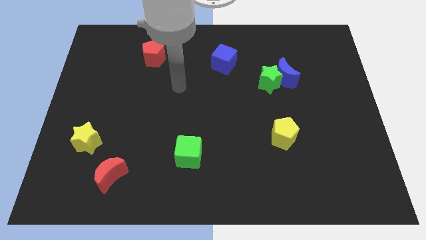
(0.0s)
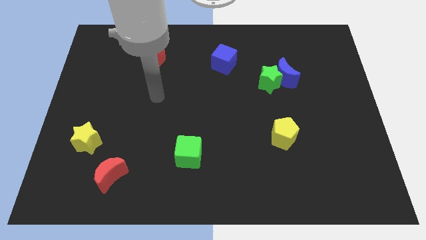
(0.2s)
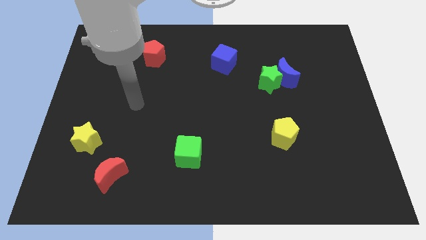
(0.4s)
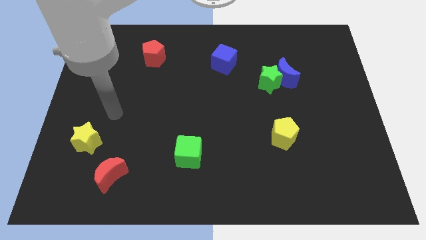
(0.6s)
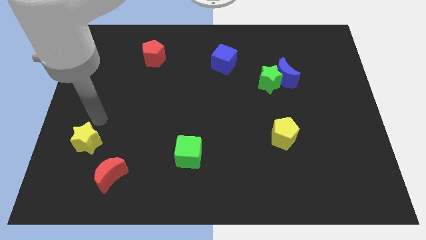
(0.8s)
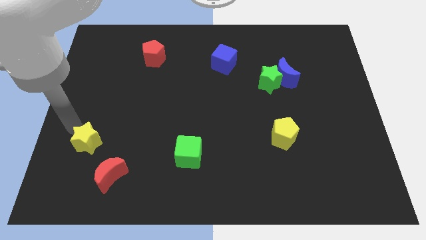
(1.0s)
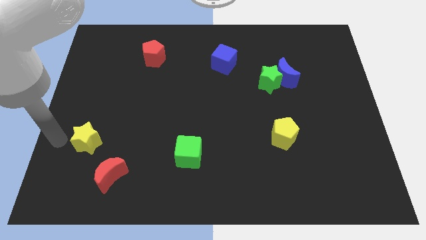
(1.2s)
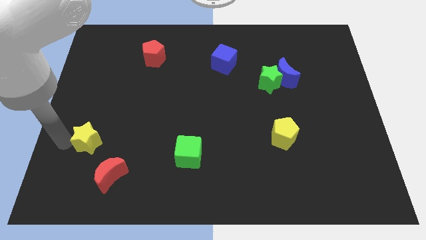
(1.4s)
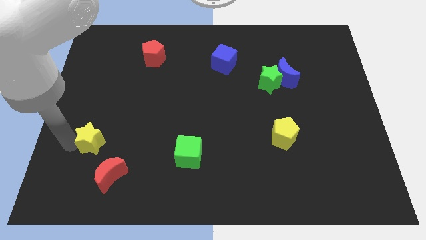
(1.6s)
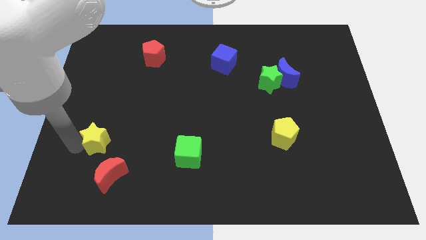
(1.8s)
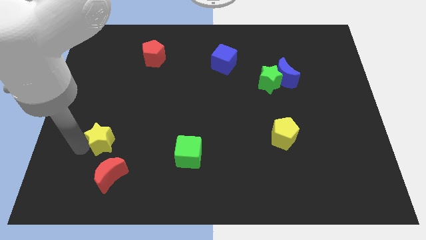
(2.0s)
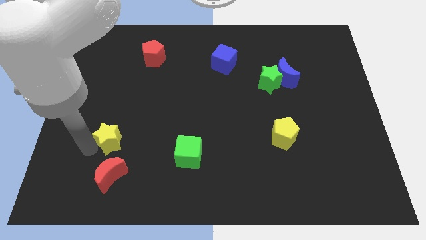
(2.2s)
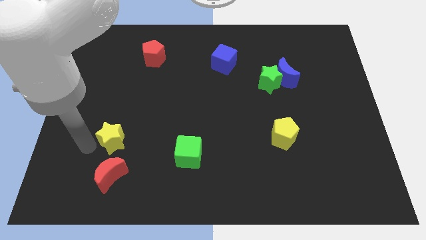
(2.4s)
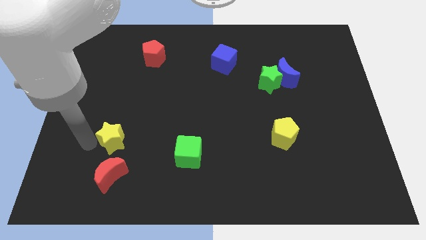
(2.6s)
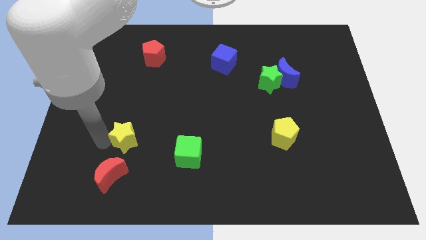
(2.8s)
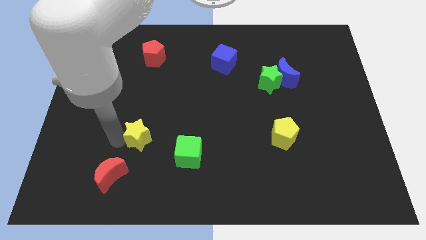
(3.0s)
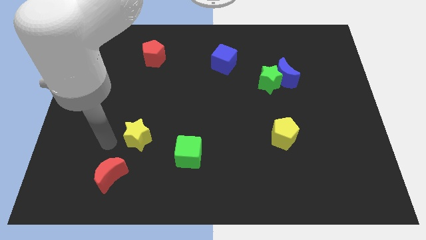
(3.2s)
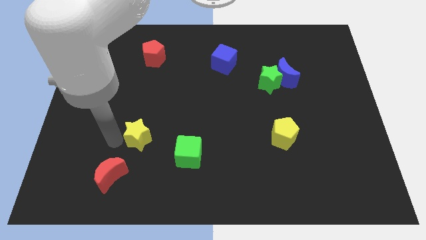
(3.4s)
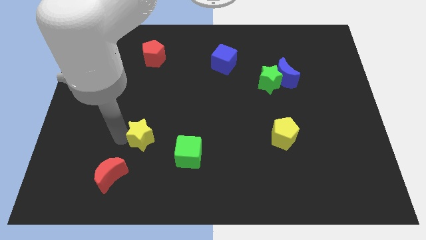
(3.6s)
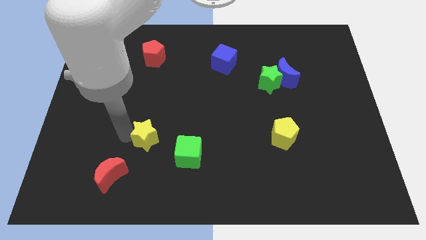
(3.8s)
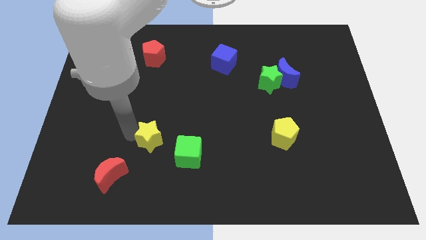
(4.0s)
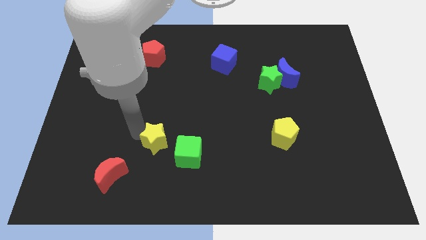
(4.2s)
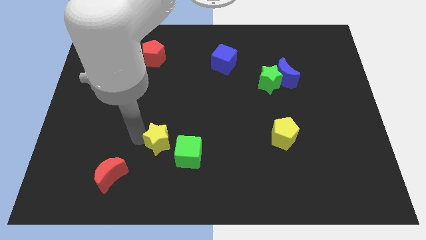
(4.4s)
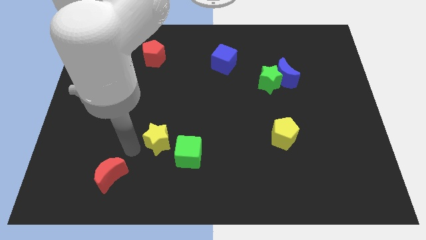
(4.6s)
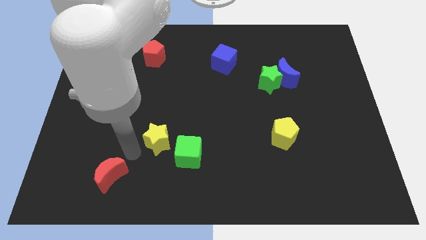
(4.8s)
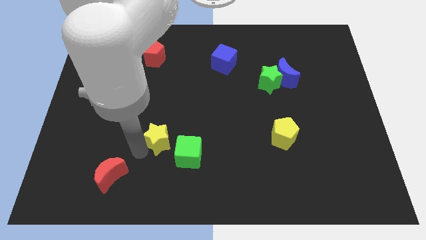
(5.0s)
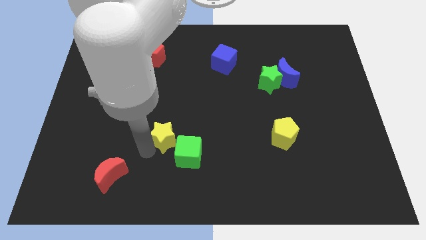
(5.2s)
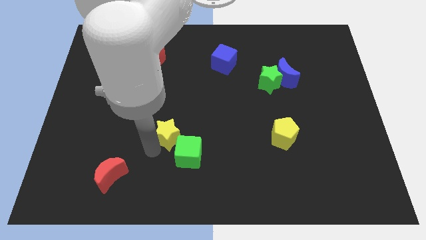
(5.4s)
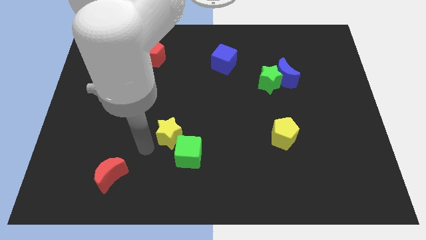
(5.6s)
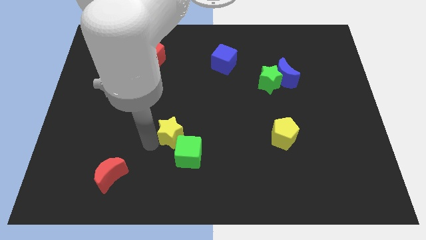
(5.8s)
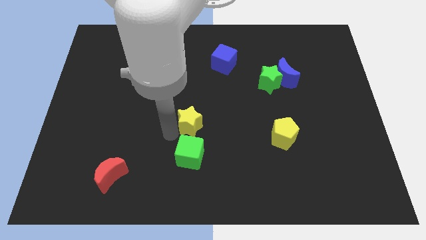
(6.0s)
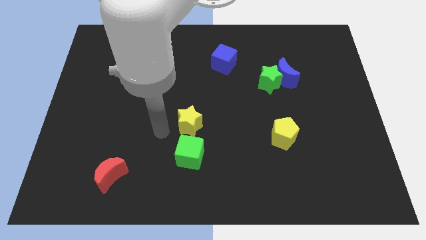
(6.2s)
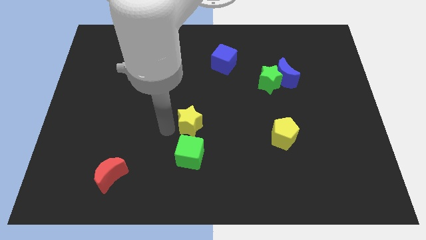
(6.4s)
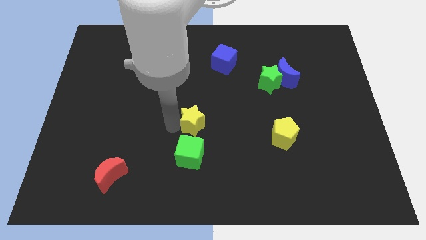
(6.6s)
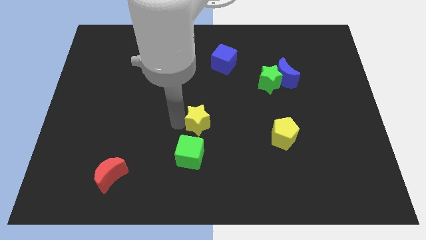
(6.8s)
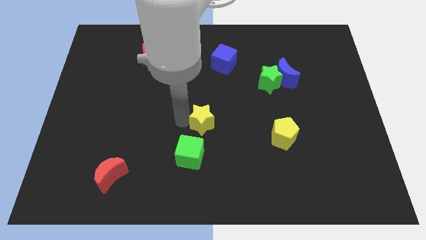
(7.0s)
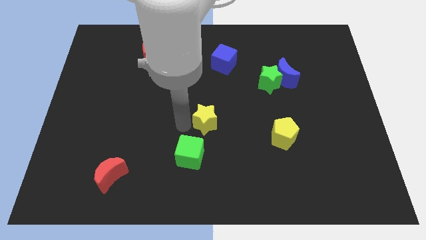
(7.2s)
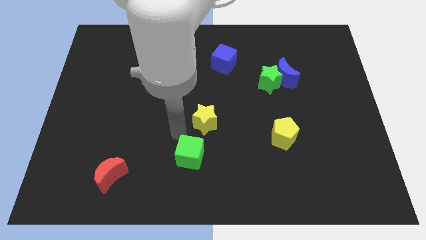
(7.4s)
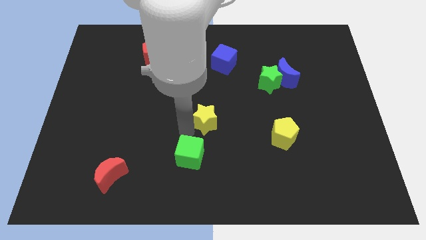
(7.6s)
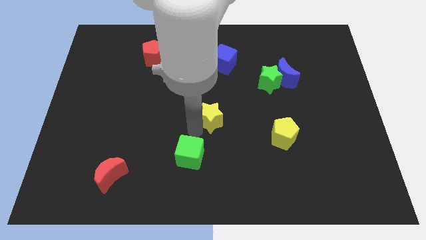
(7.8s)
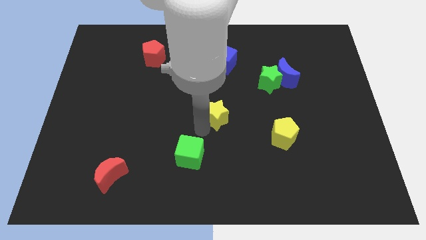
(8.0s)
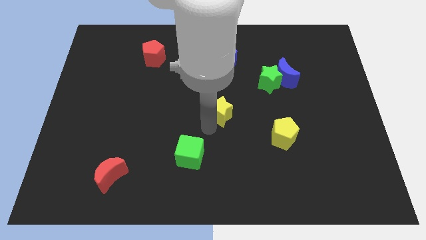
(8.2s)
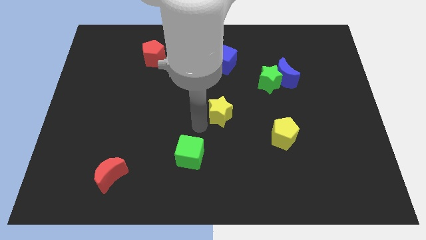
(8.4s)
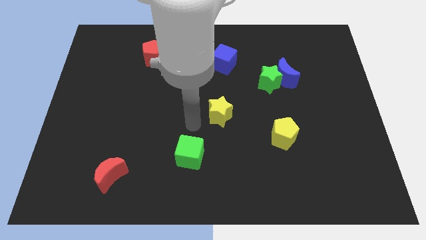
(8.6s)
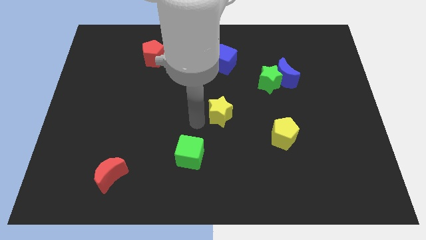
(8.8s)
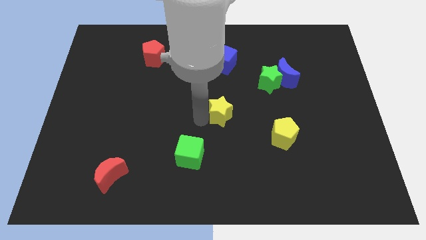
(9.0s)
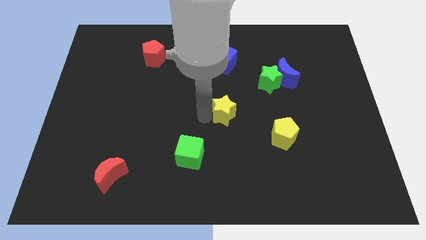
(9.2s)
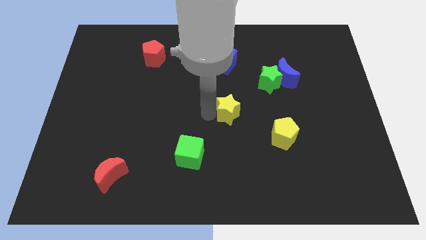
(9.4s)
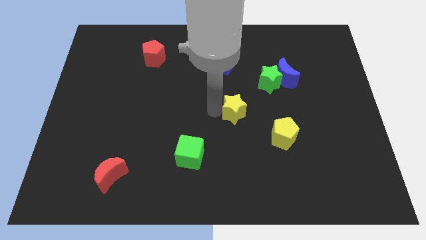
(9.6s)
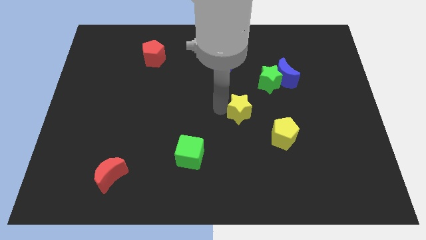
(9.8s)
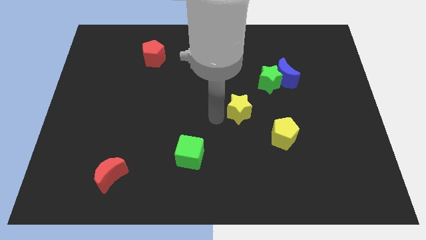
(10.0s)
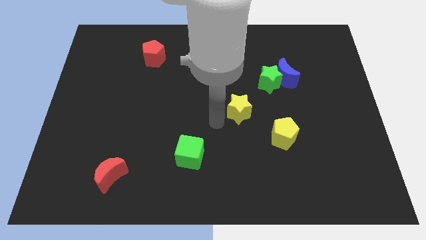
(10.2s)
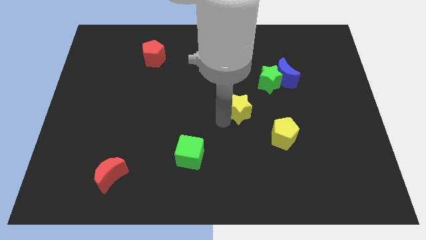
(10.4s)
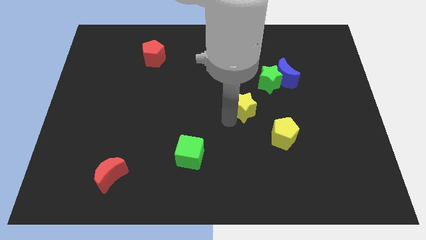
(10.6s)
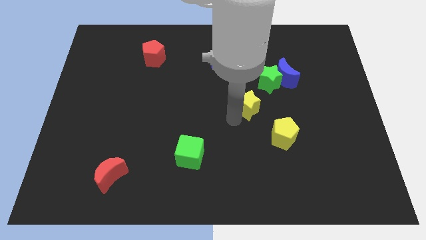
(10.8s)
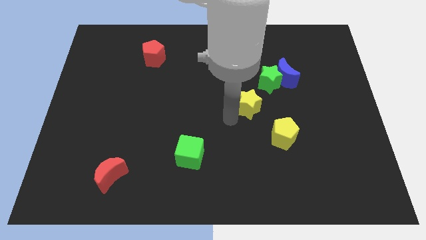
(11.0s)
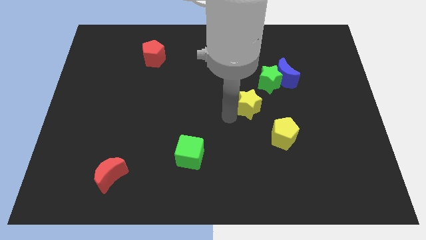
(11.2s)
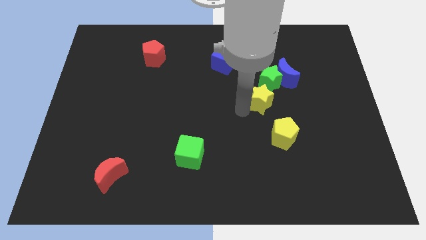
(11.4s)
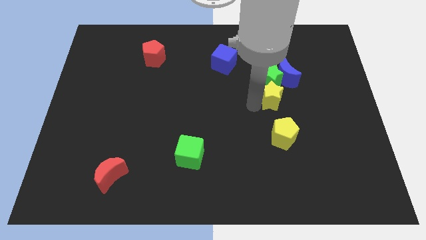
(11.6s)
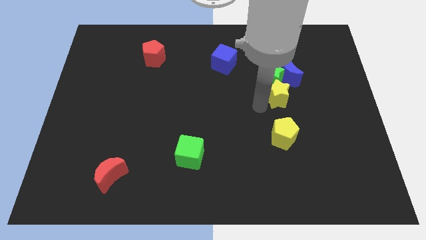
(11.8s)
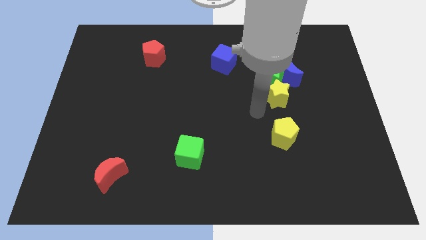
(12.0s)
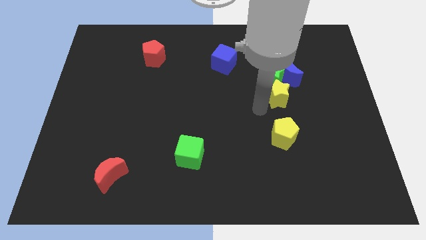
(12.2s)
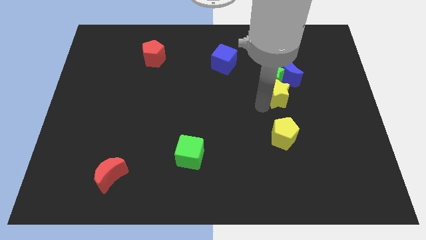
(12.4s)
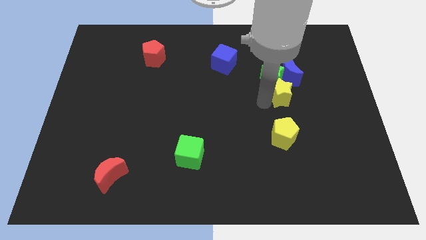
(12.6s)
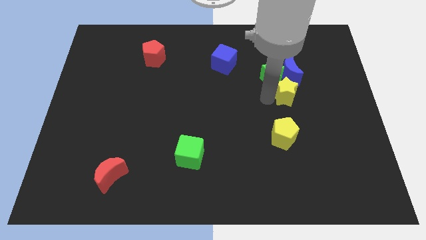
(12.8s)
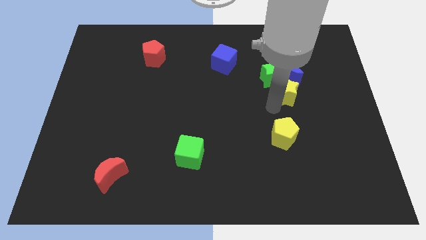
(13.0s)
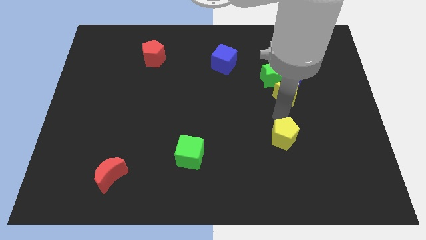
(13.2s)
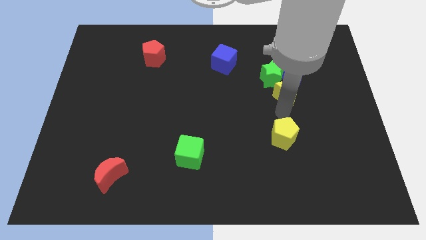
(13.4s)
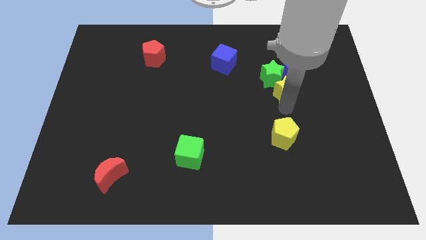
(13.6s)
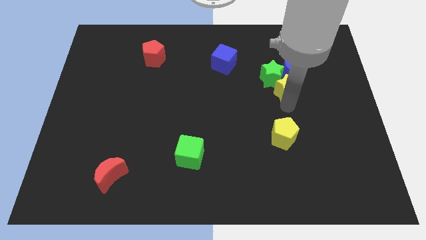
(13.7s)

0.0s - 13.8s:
push the yellow star towards the blue moon

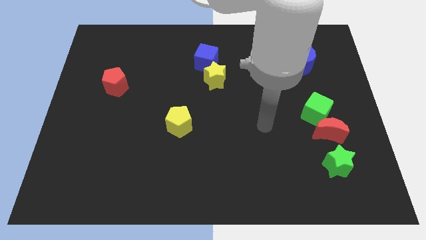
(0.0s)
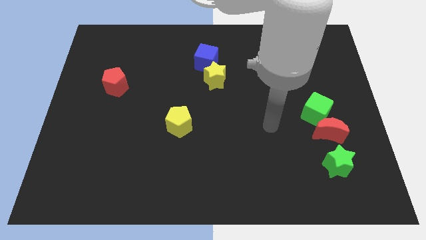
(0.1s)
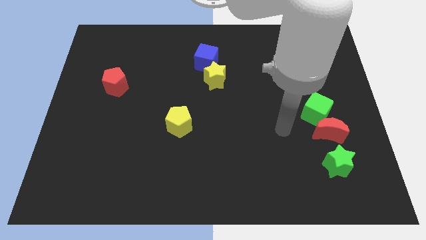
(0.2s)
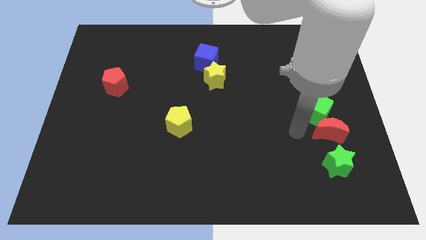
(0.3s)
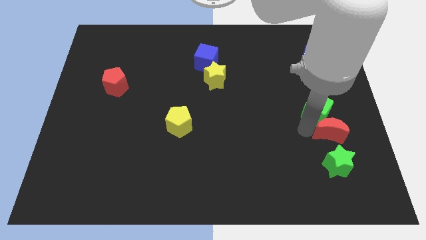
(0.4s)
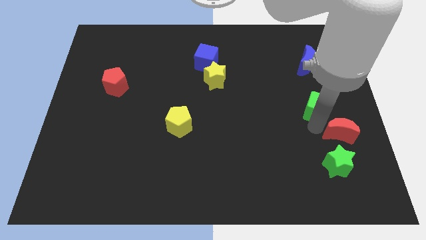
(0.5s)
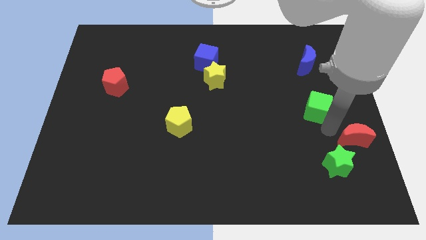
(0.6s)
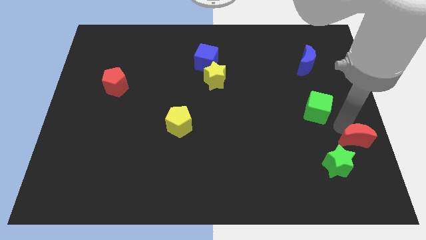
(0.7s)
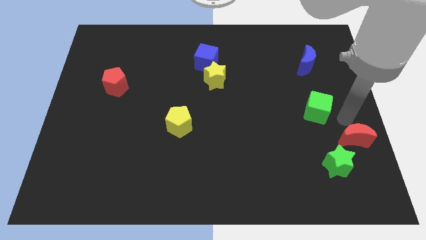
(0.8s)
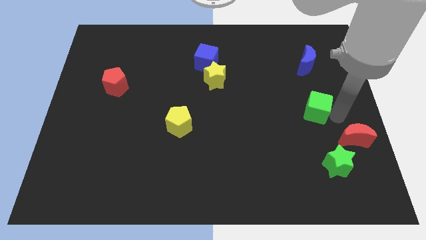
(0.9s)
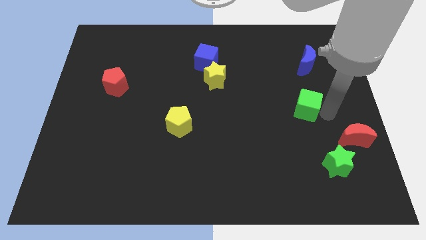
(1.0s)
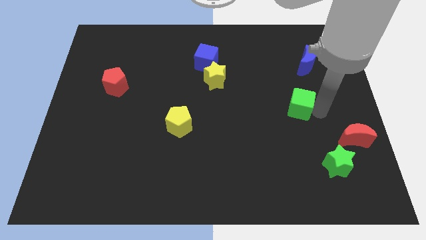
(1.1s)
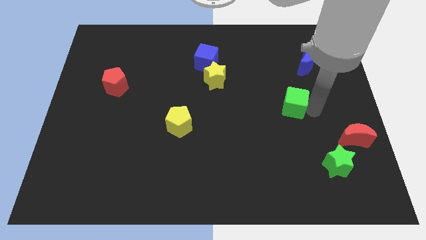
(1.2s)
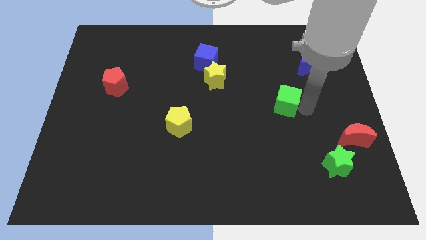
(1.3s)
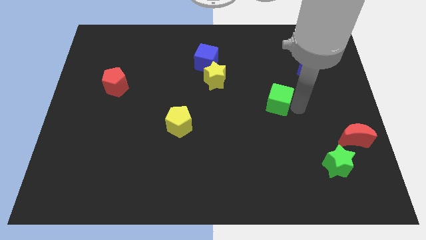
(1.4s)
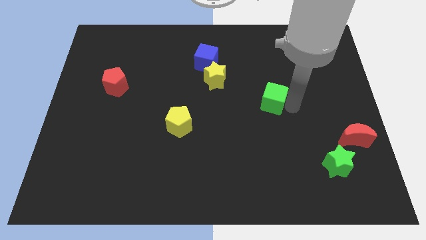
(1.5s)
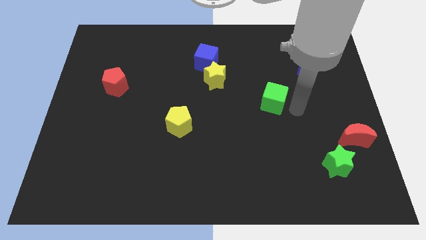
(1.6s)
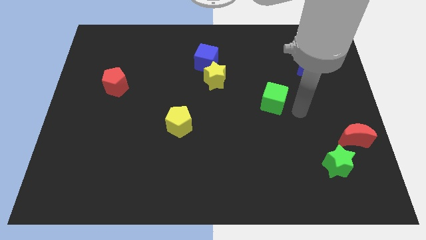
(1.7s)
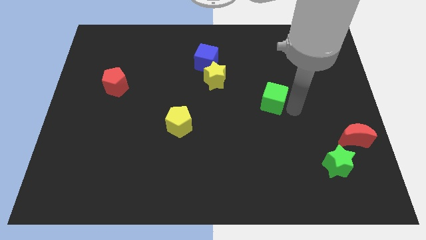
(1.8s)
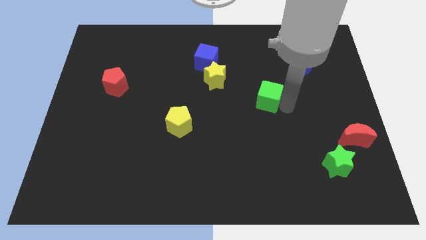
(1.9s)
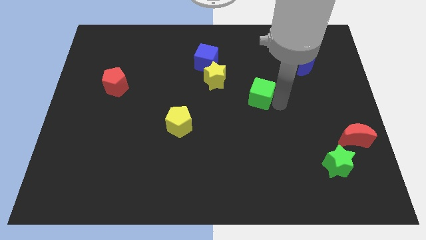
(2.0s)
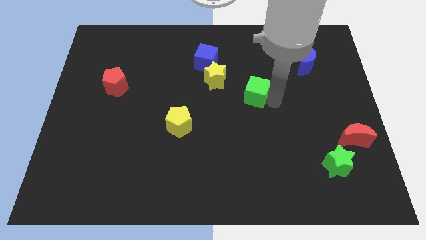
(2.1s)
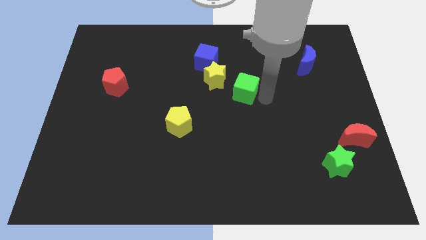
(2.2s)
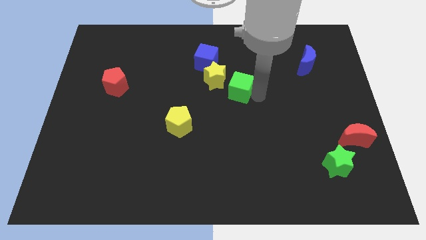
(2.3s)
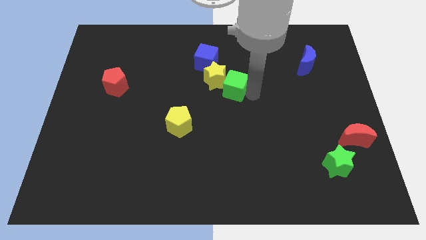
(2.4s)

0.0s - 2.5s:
move the green cube close to the yellow star
